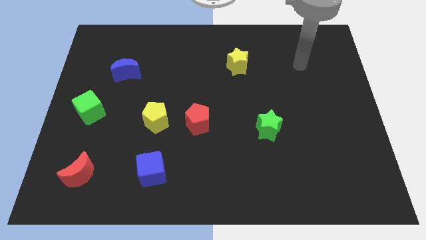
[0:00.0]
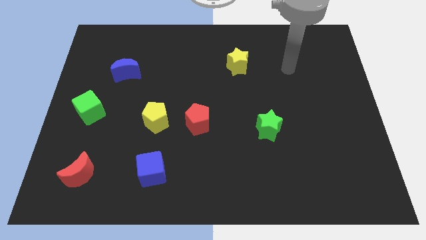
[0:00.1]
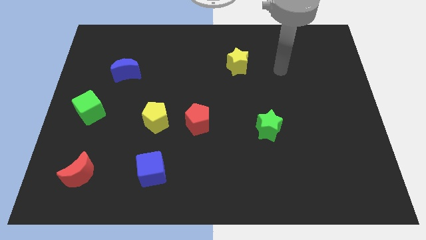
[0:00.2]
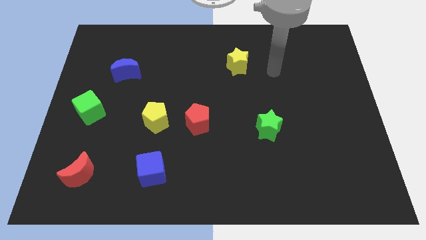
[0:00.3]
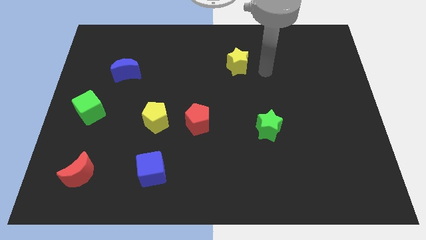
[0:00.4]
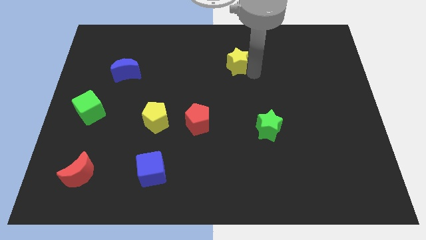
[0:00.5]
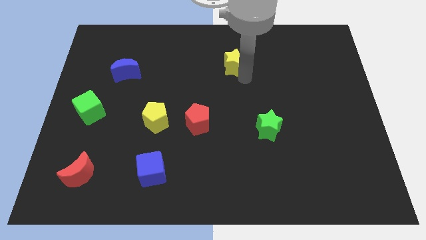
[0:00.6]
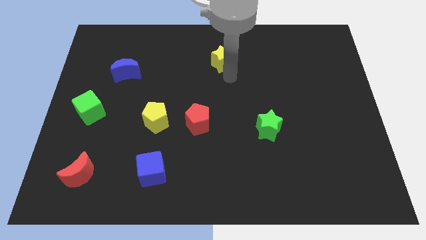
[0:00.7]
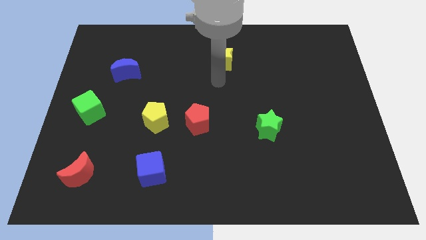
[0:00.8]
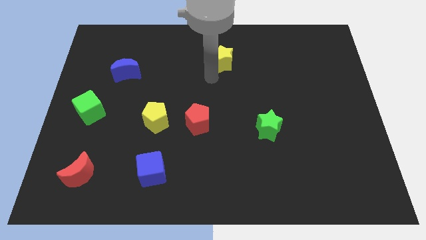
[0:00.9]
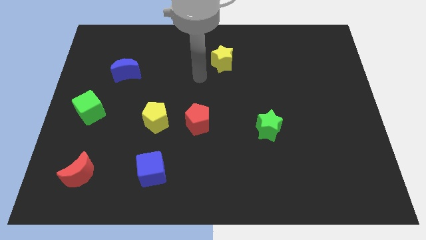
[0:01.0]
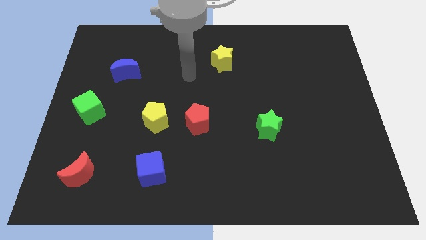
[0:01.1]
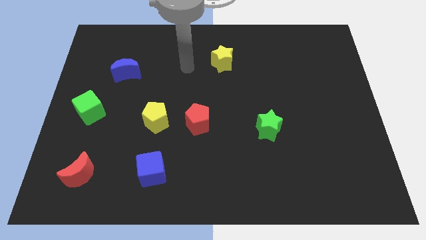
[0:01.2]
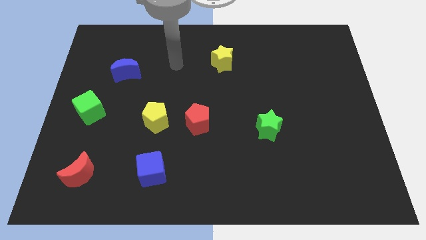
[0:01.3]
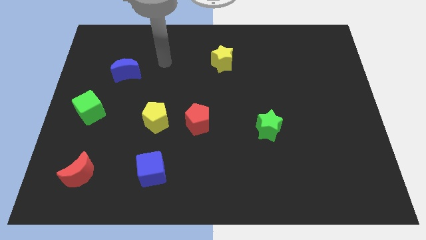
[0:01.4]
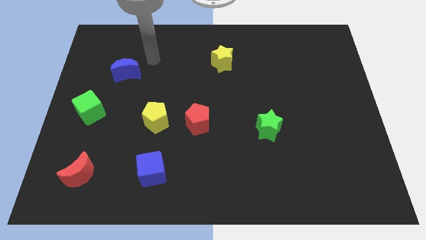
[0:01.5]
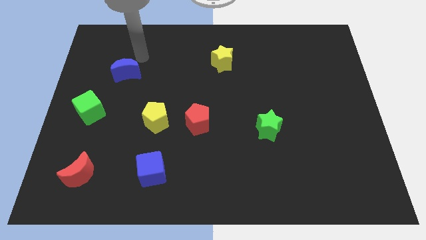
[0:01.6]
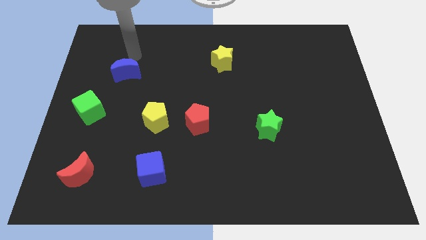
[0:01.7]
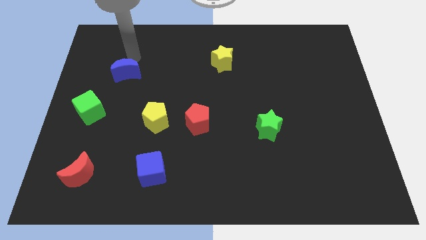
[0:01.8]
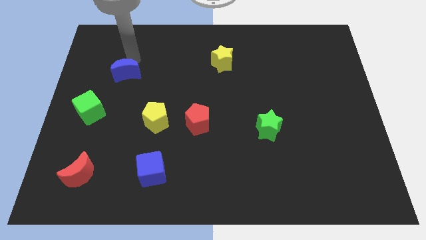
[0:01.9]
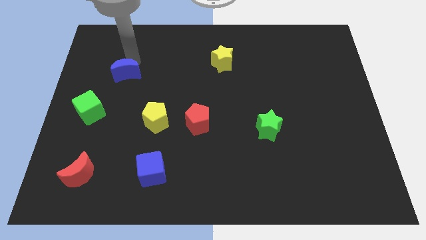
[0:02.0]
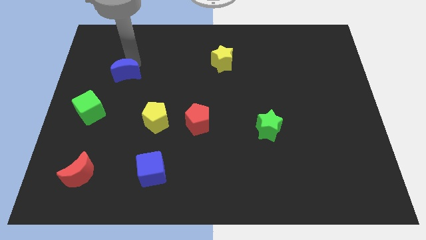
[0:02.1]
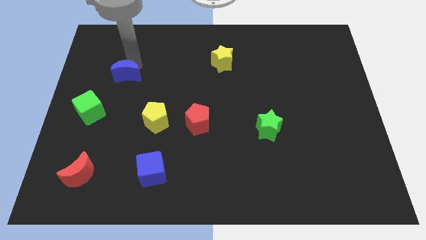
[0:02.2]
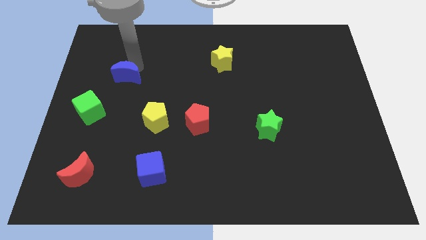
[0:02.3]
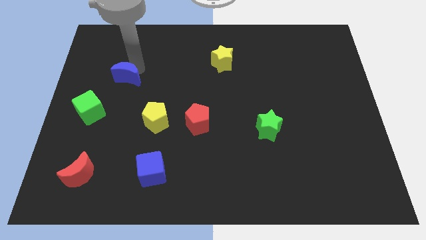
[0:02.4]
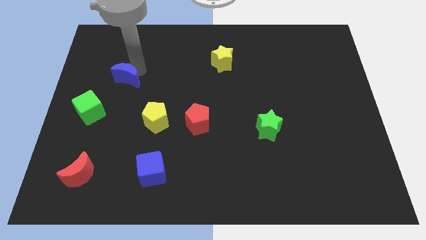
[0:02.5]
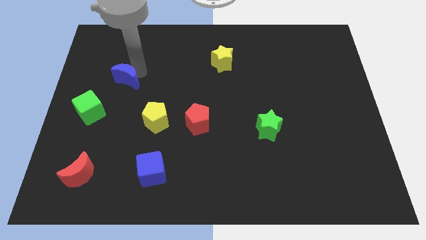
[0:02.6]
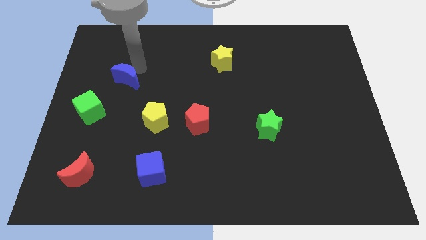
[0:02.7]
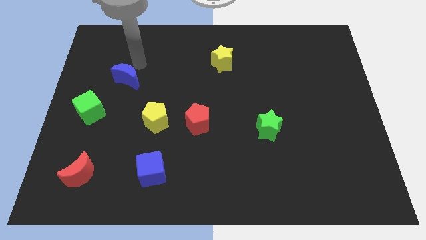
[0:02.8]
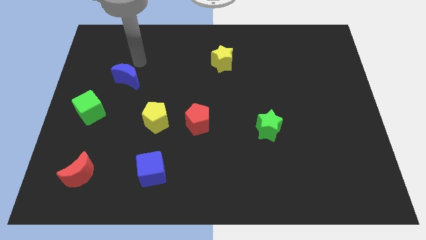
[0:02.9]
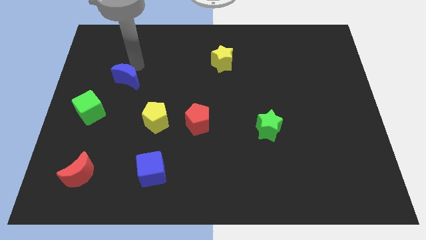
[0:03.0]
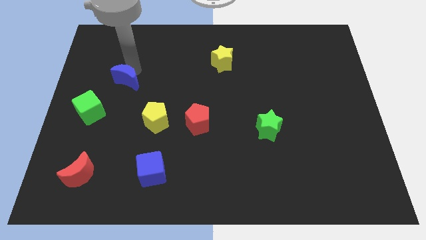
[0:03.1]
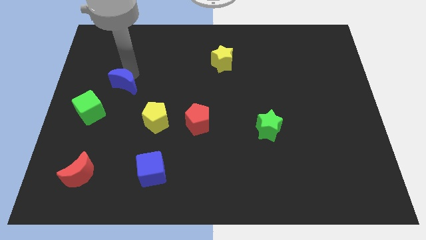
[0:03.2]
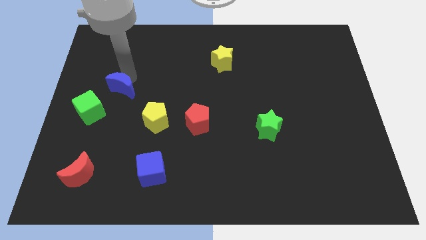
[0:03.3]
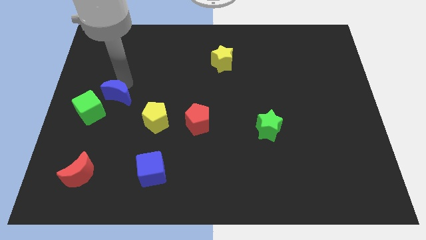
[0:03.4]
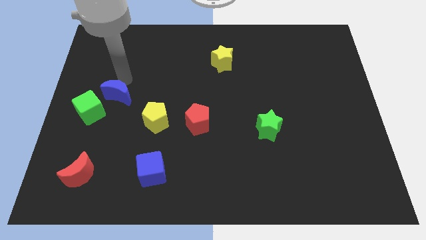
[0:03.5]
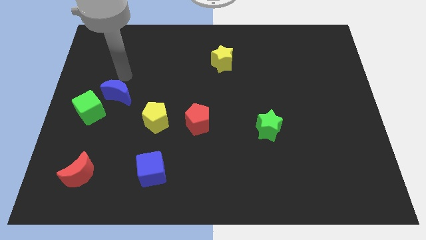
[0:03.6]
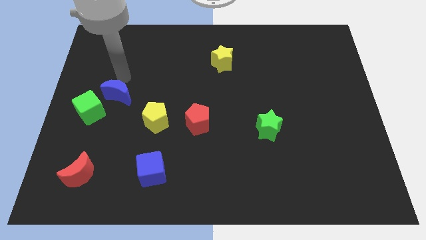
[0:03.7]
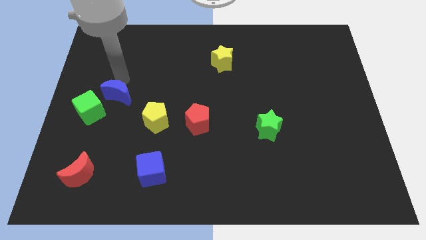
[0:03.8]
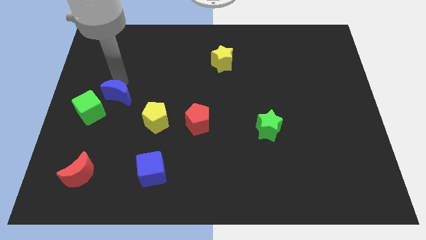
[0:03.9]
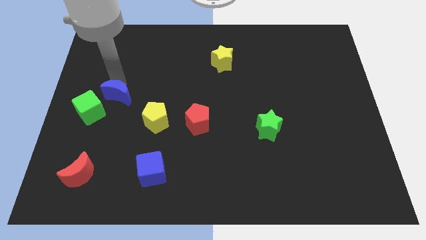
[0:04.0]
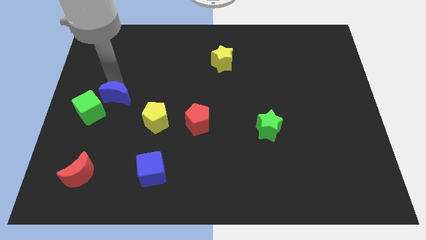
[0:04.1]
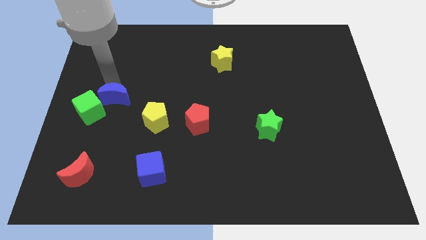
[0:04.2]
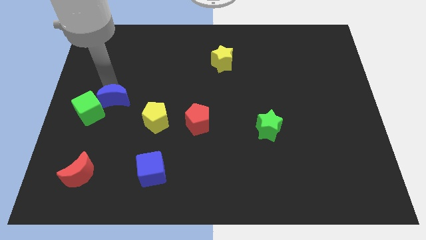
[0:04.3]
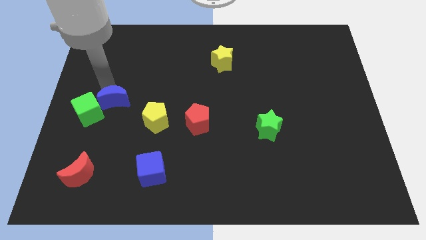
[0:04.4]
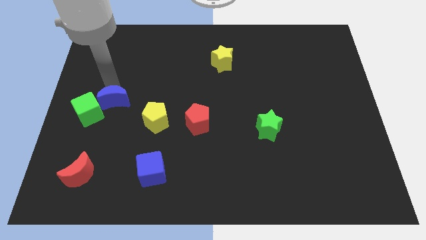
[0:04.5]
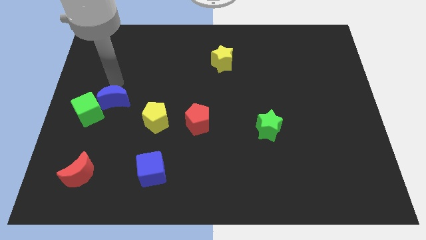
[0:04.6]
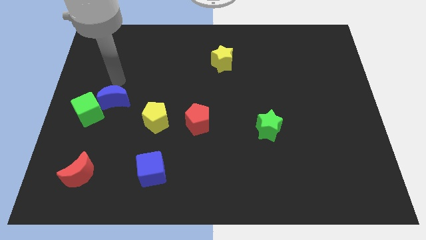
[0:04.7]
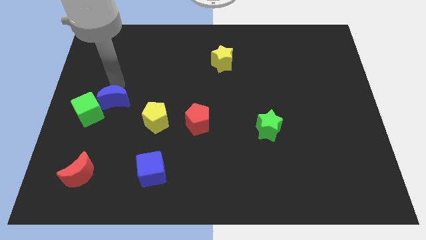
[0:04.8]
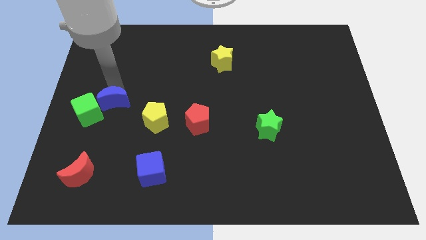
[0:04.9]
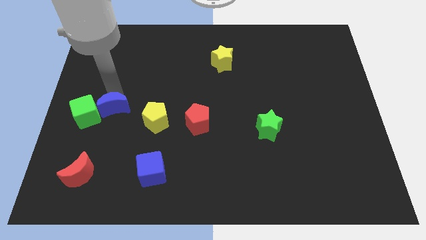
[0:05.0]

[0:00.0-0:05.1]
push the blue moon to the left side of the yellow pentagon

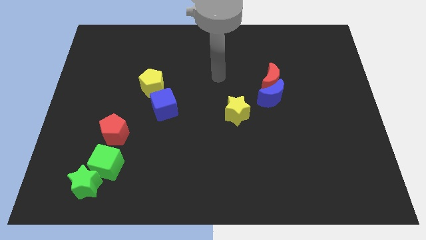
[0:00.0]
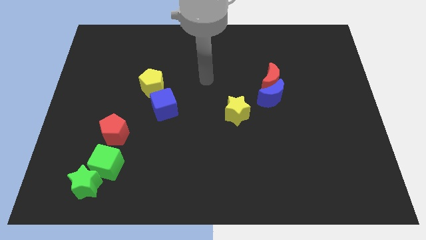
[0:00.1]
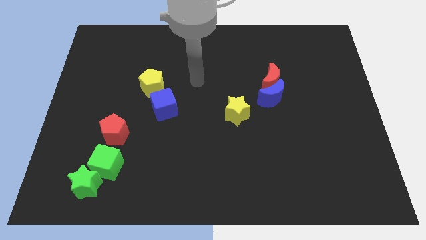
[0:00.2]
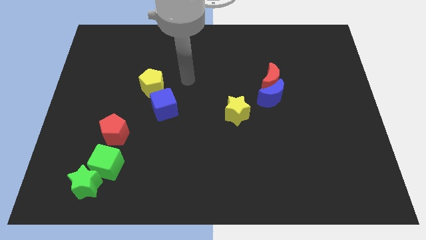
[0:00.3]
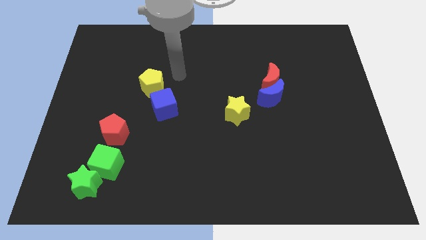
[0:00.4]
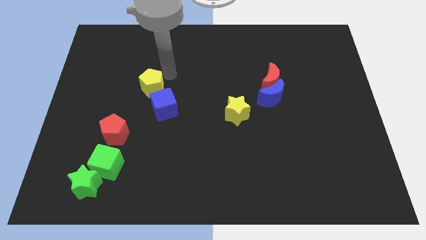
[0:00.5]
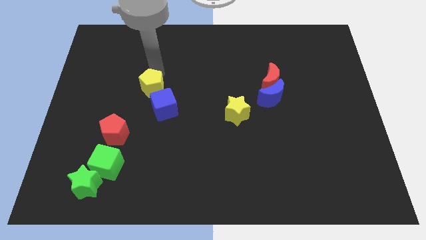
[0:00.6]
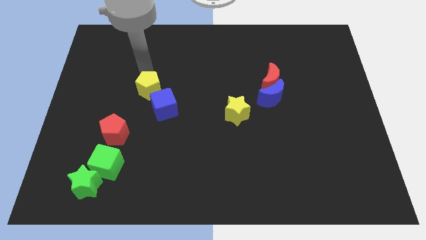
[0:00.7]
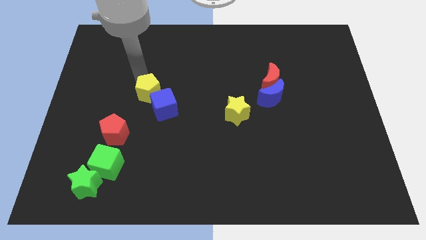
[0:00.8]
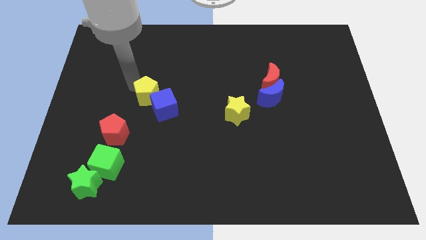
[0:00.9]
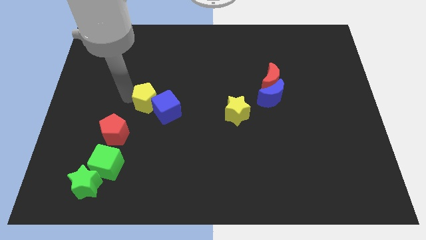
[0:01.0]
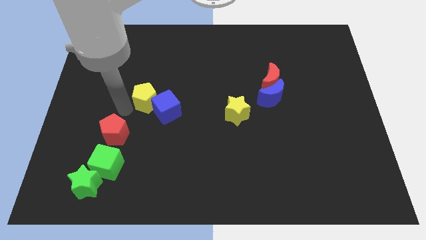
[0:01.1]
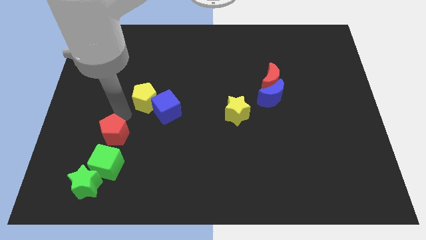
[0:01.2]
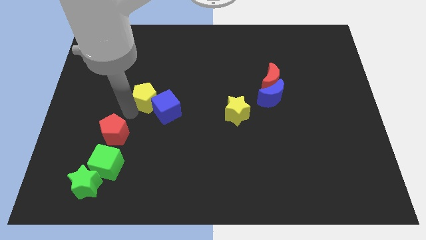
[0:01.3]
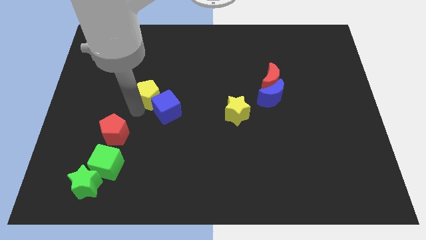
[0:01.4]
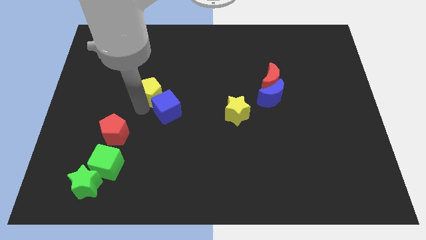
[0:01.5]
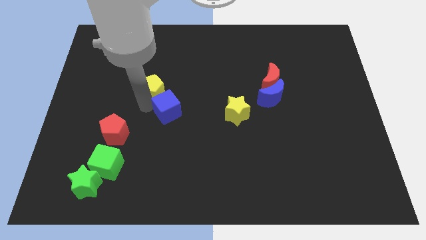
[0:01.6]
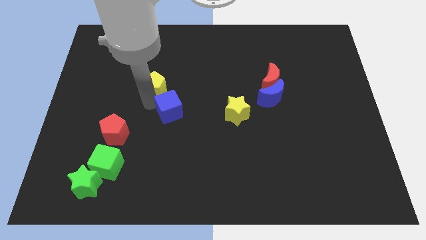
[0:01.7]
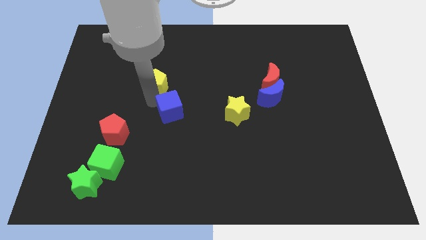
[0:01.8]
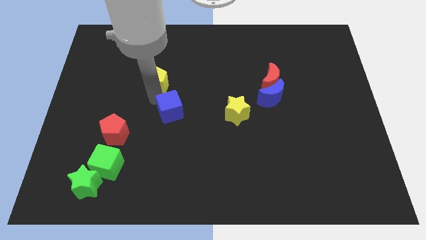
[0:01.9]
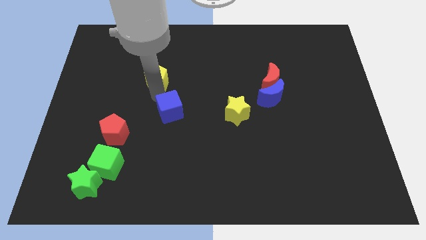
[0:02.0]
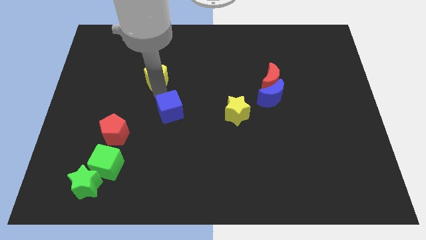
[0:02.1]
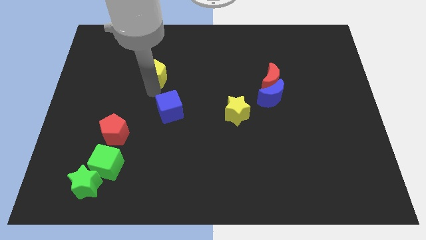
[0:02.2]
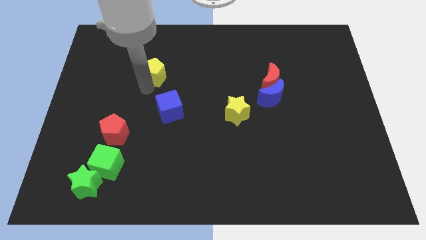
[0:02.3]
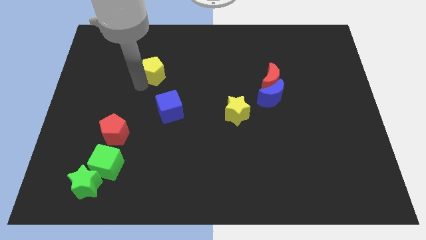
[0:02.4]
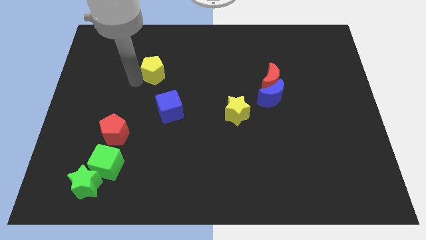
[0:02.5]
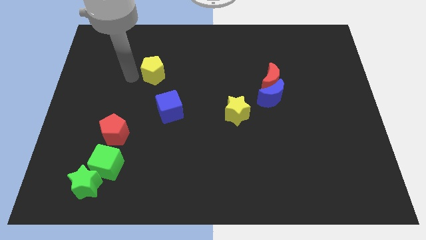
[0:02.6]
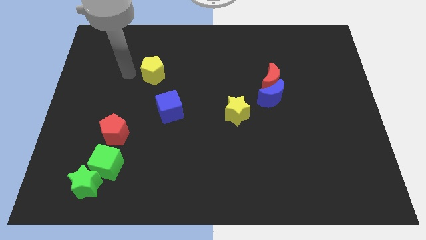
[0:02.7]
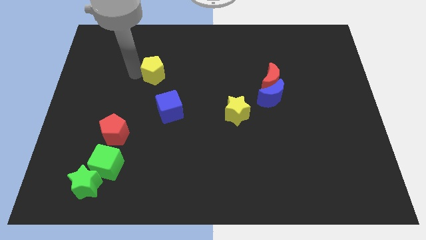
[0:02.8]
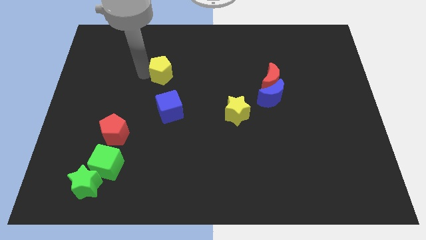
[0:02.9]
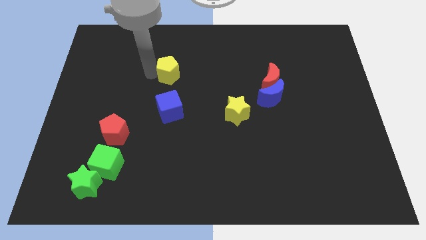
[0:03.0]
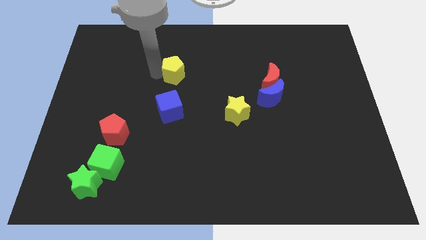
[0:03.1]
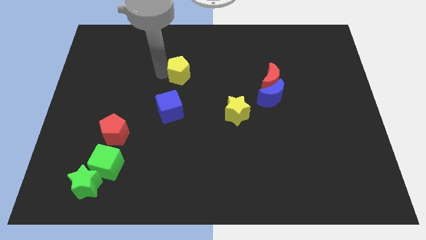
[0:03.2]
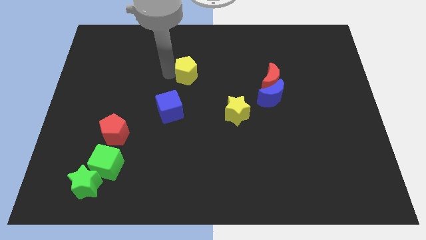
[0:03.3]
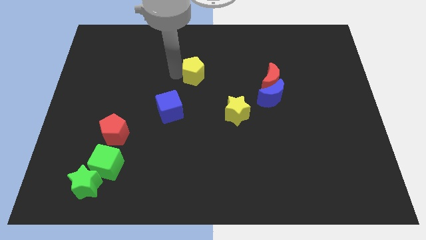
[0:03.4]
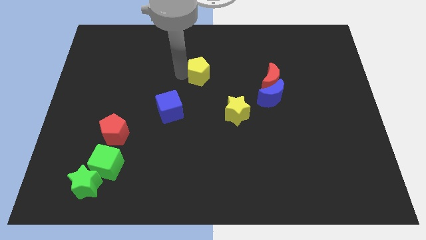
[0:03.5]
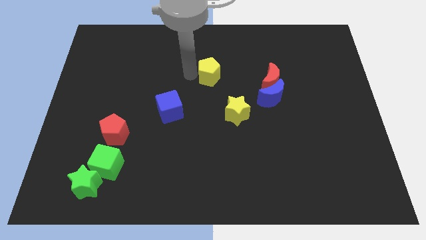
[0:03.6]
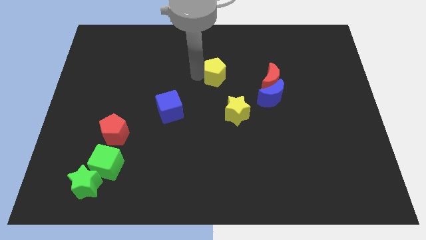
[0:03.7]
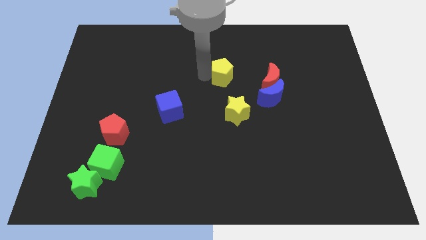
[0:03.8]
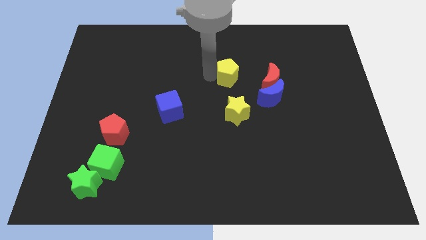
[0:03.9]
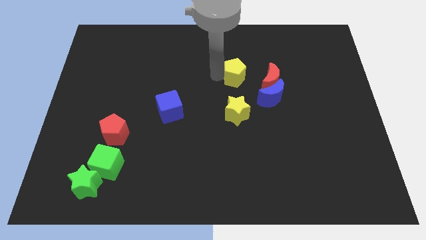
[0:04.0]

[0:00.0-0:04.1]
slide the yellow pentagon to the top left side of the blue moon
